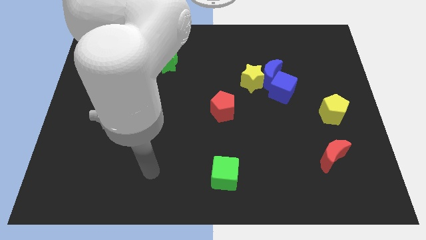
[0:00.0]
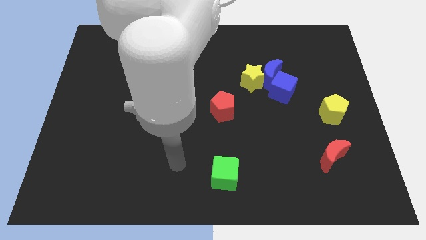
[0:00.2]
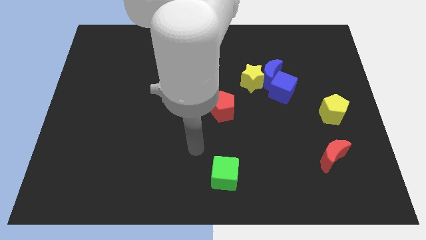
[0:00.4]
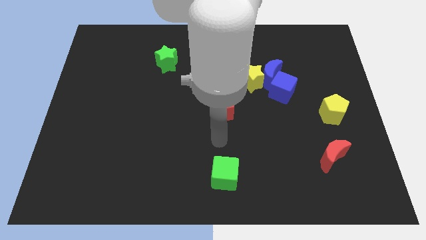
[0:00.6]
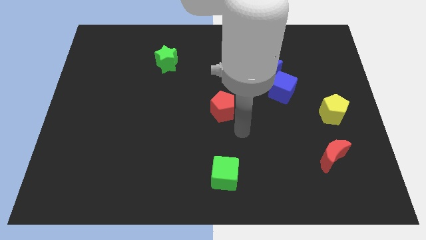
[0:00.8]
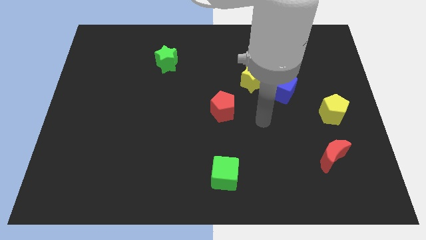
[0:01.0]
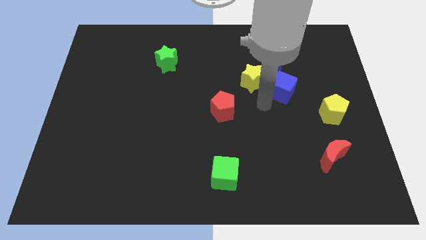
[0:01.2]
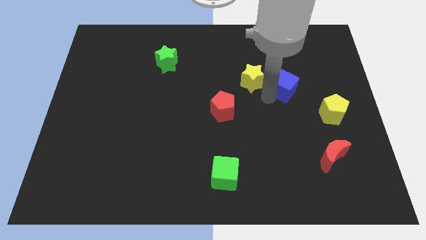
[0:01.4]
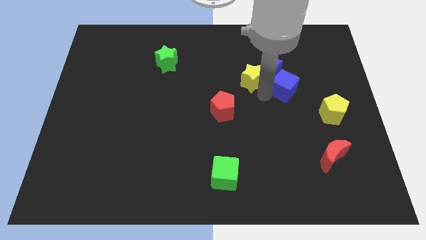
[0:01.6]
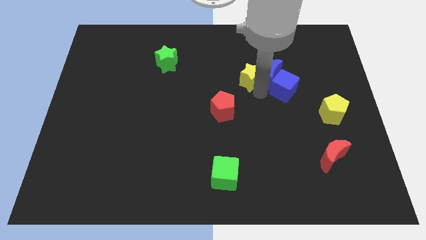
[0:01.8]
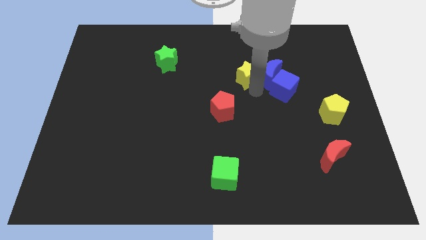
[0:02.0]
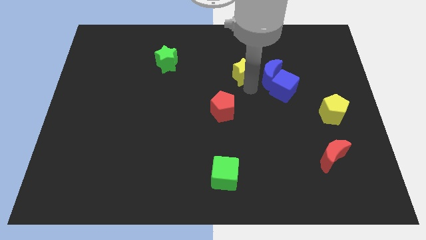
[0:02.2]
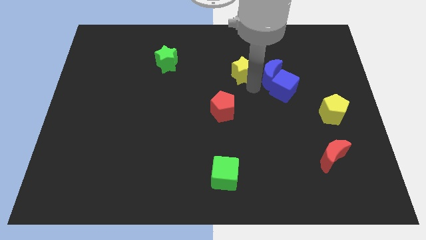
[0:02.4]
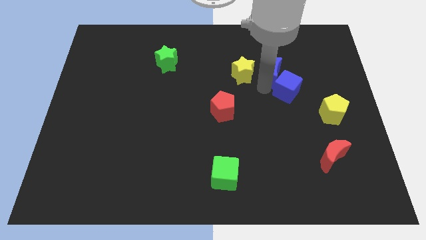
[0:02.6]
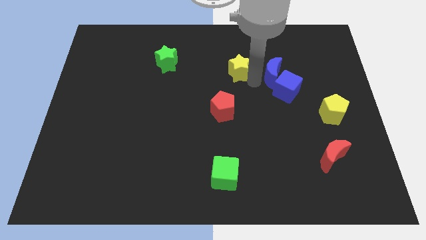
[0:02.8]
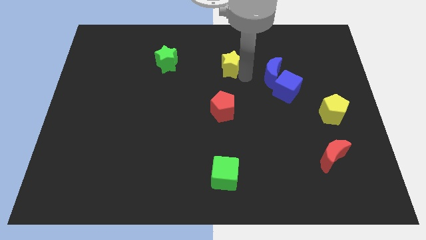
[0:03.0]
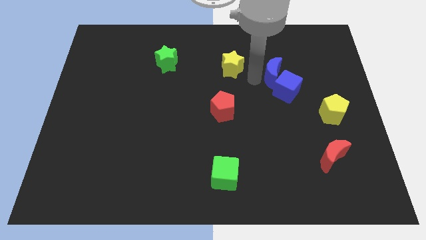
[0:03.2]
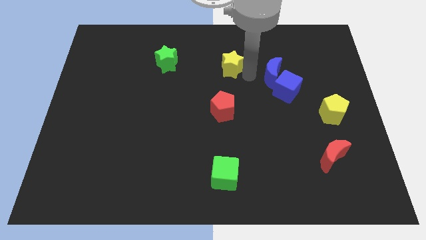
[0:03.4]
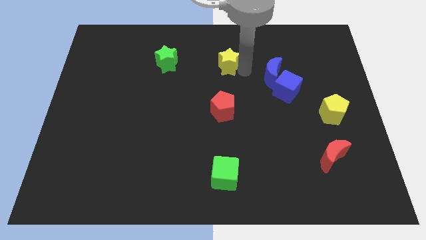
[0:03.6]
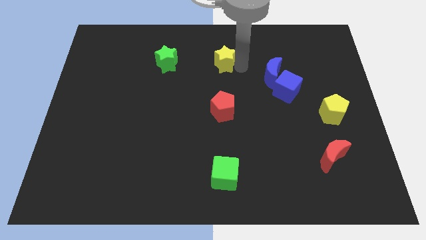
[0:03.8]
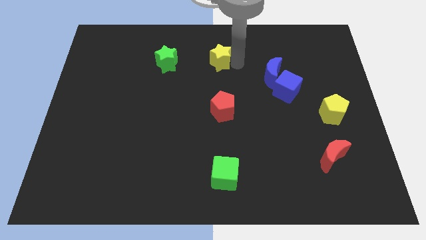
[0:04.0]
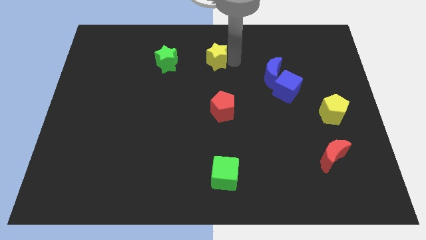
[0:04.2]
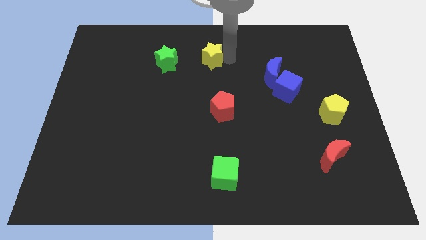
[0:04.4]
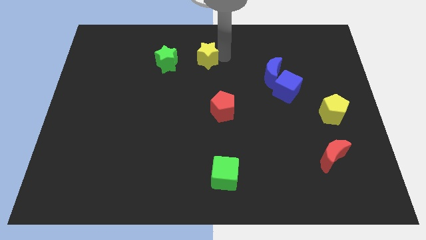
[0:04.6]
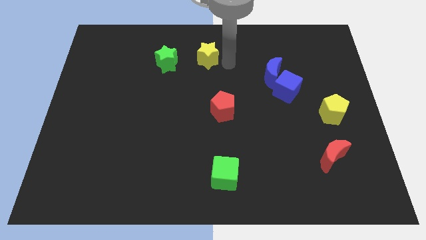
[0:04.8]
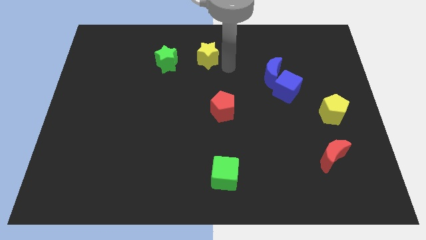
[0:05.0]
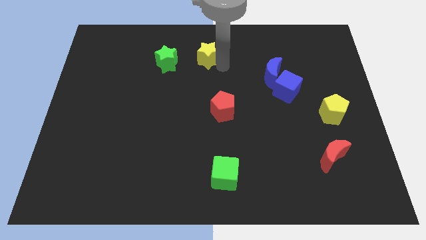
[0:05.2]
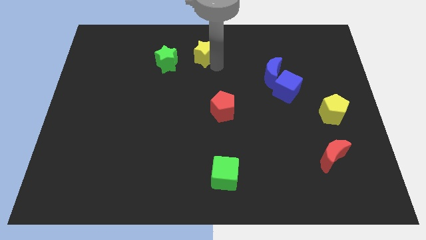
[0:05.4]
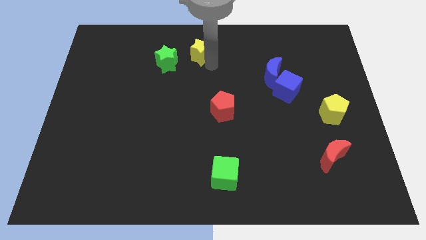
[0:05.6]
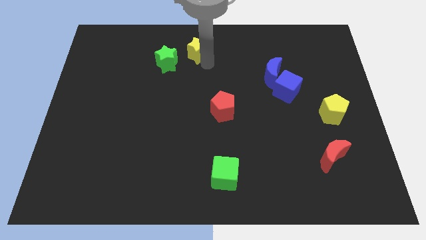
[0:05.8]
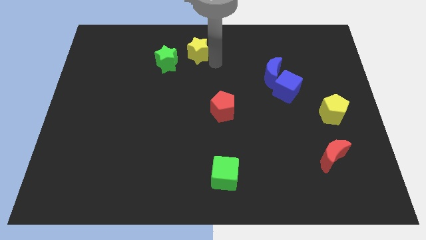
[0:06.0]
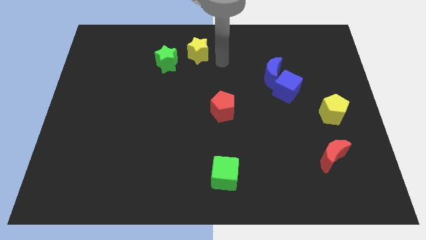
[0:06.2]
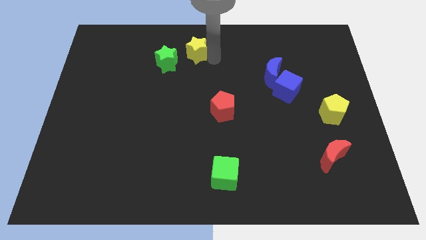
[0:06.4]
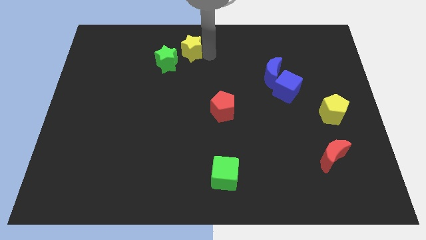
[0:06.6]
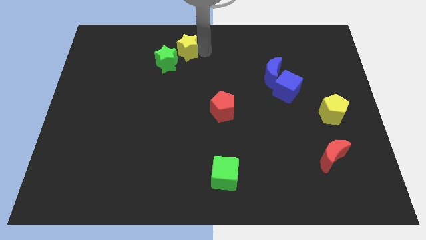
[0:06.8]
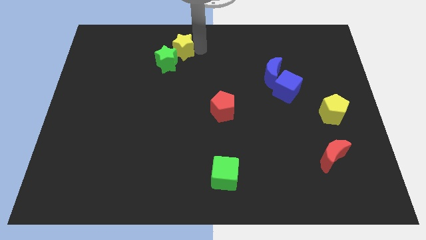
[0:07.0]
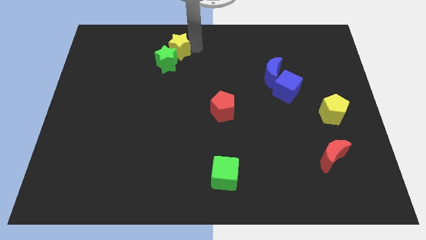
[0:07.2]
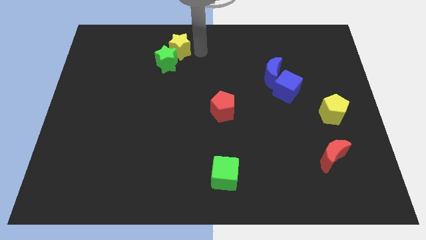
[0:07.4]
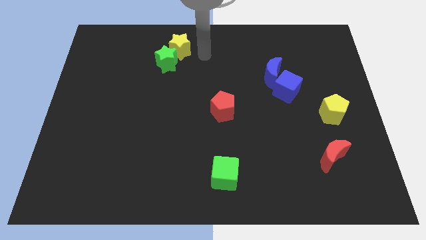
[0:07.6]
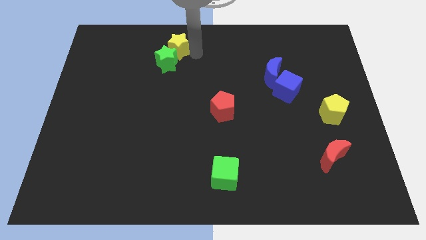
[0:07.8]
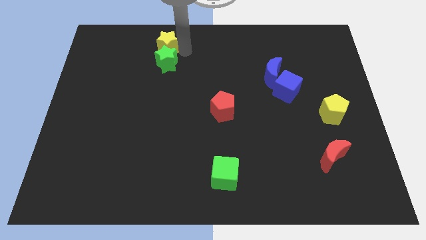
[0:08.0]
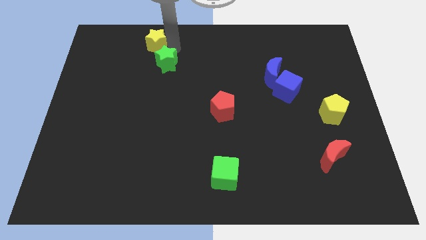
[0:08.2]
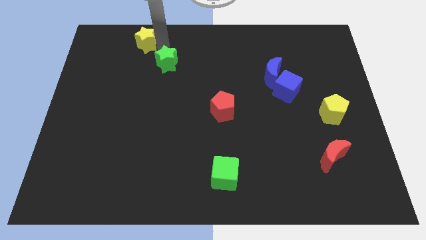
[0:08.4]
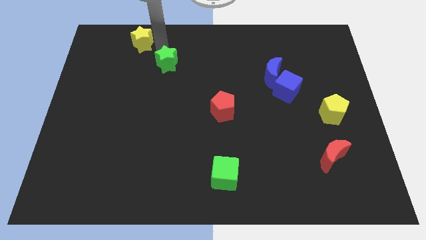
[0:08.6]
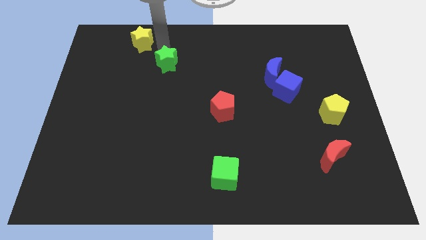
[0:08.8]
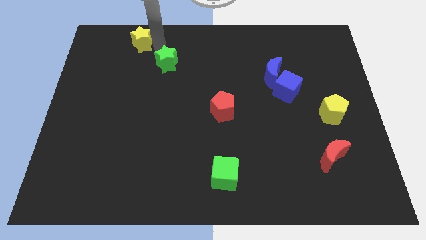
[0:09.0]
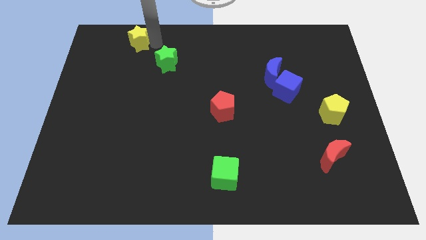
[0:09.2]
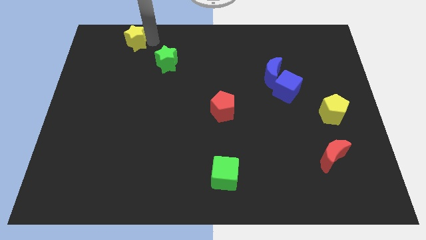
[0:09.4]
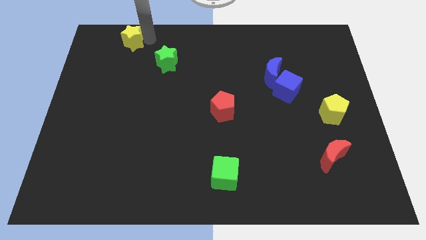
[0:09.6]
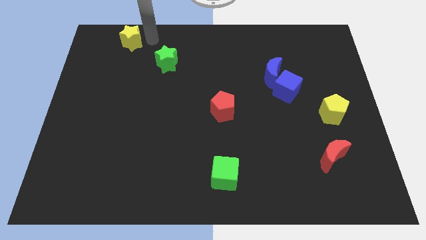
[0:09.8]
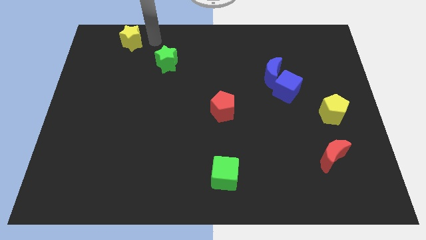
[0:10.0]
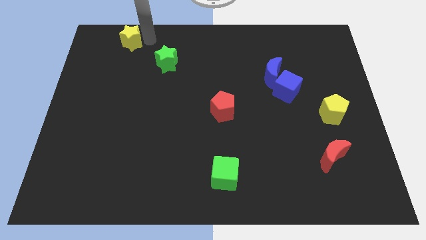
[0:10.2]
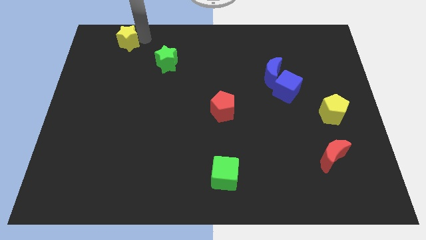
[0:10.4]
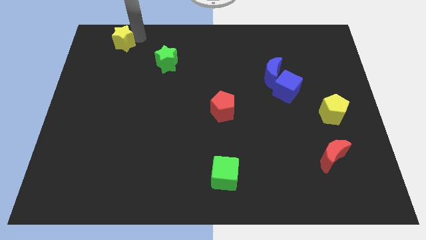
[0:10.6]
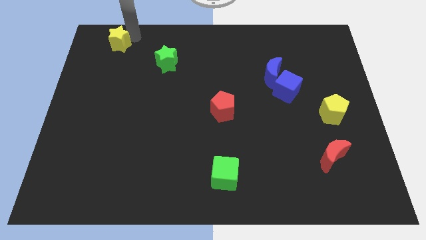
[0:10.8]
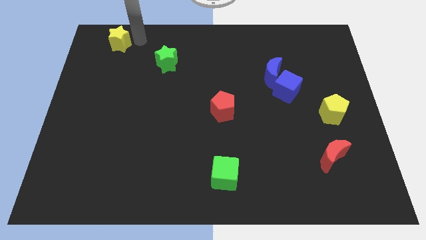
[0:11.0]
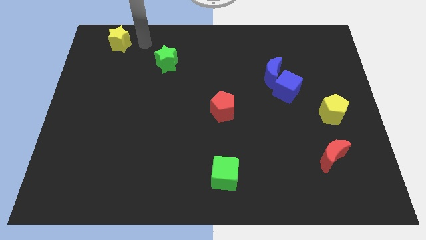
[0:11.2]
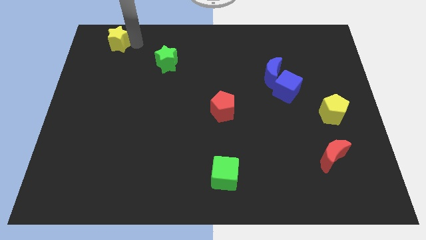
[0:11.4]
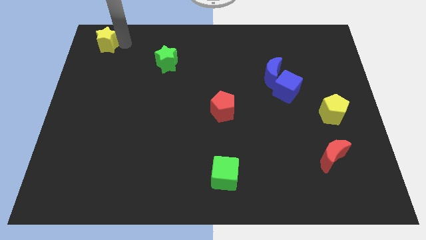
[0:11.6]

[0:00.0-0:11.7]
push the yellow star to the upper left corner

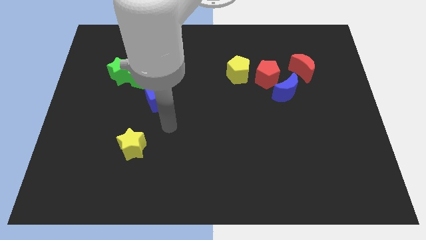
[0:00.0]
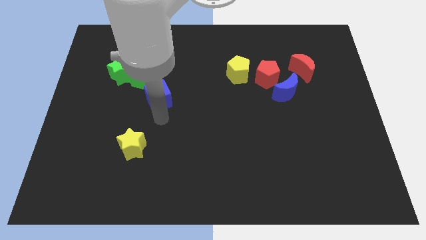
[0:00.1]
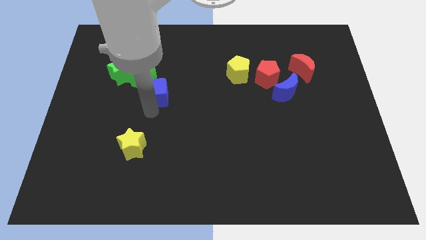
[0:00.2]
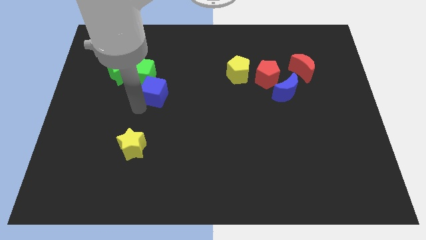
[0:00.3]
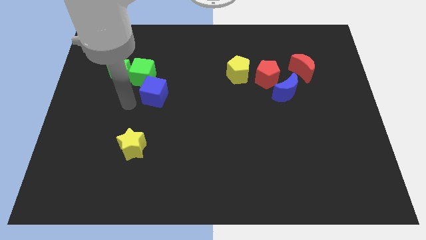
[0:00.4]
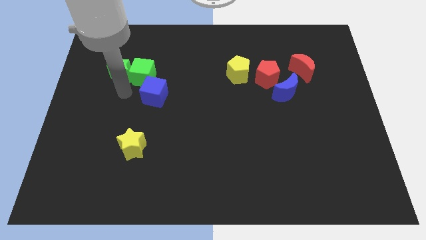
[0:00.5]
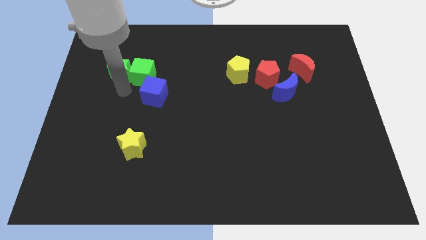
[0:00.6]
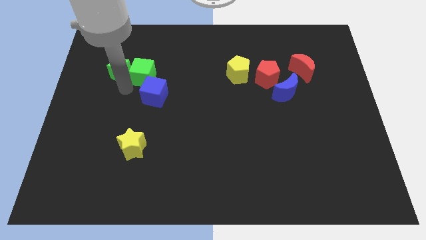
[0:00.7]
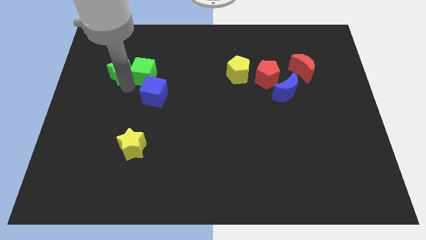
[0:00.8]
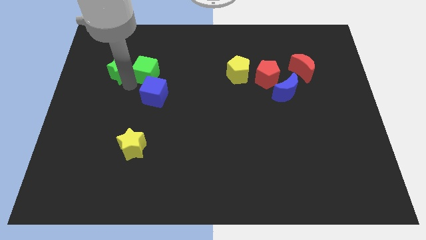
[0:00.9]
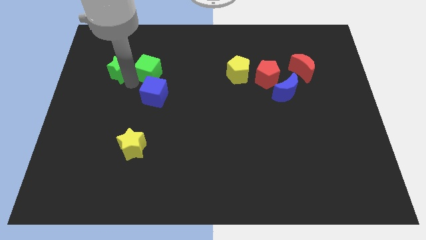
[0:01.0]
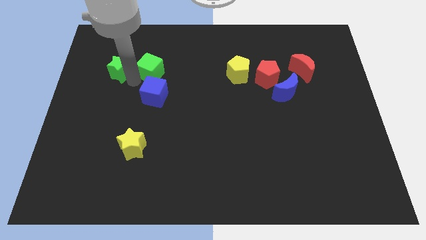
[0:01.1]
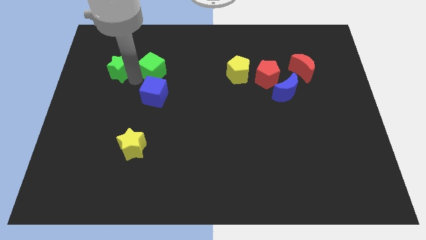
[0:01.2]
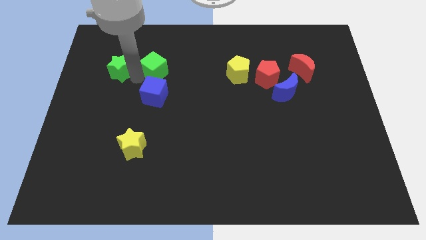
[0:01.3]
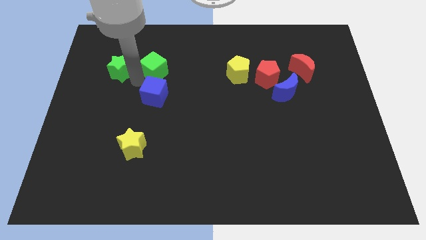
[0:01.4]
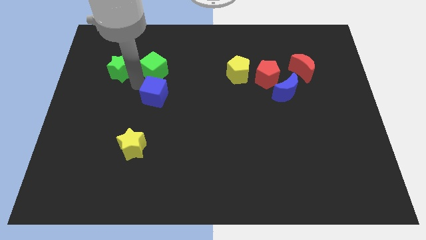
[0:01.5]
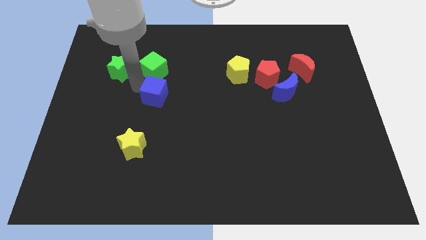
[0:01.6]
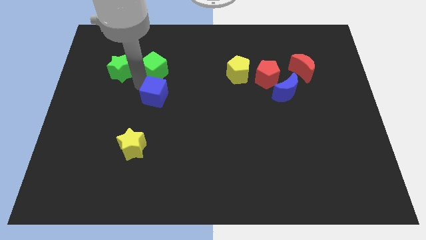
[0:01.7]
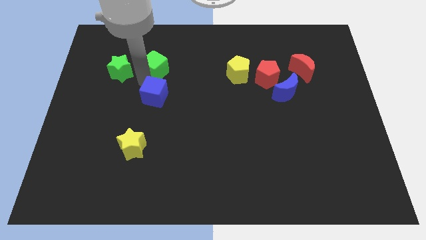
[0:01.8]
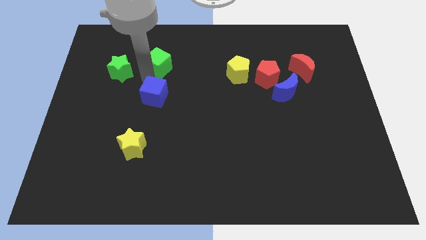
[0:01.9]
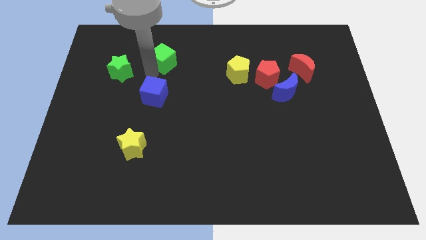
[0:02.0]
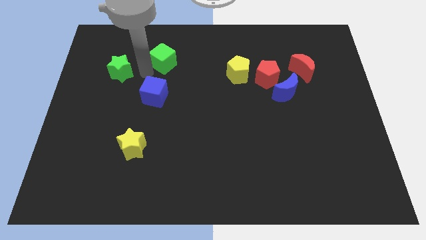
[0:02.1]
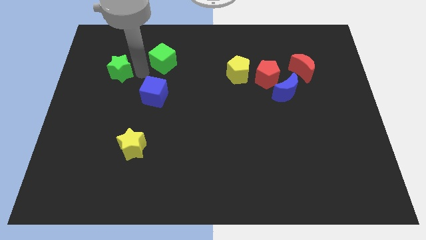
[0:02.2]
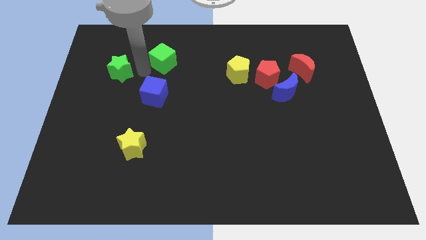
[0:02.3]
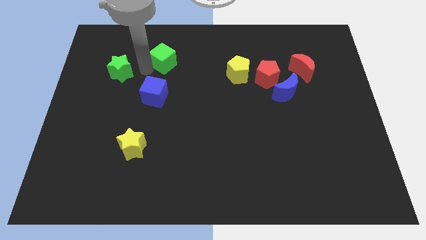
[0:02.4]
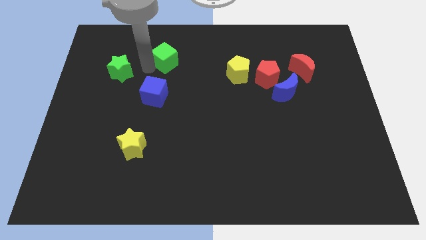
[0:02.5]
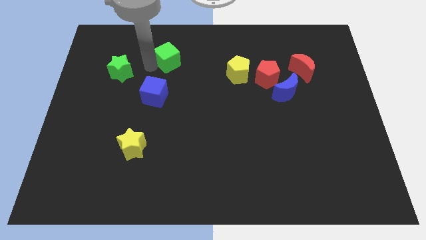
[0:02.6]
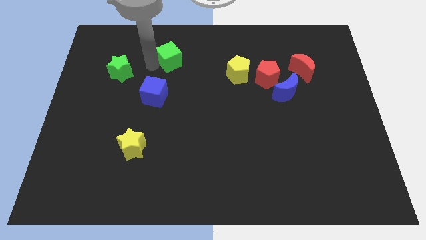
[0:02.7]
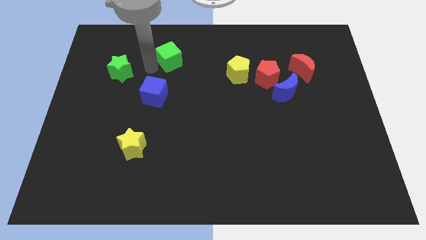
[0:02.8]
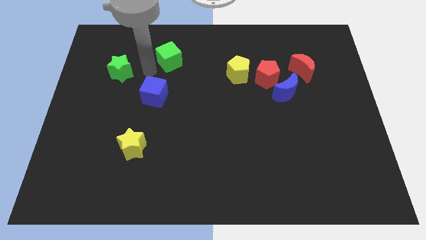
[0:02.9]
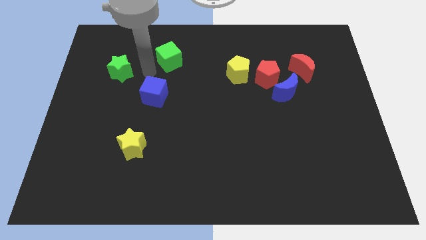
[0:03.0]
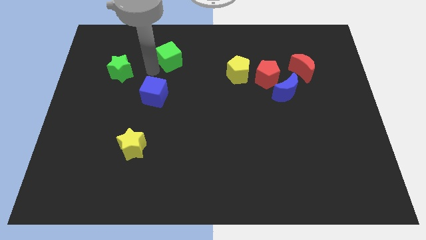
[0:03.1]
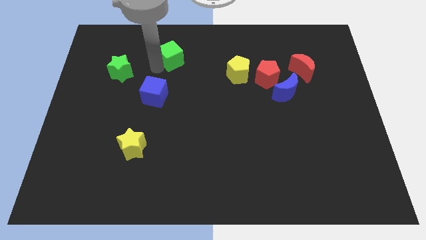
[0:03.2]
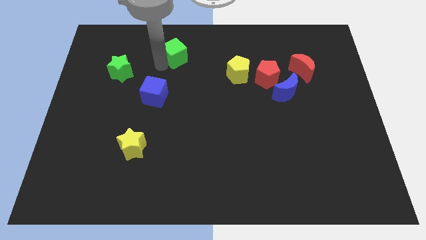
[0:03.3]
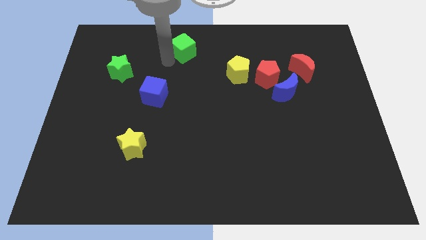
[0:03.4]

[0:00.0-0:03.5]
move the green cube to the top side
